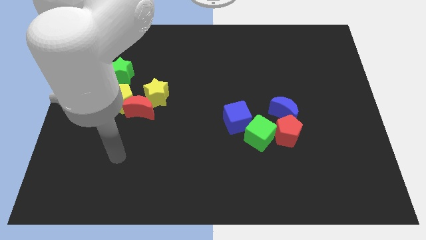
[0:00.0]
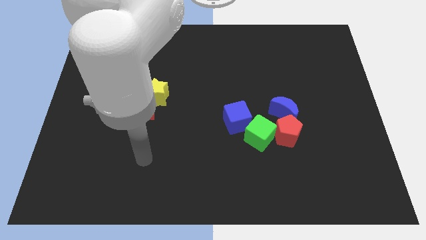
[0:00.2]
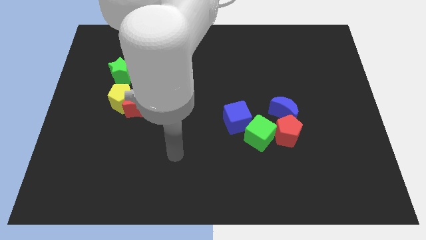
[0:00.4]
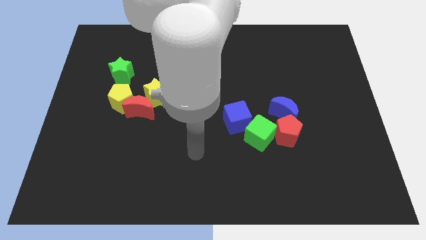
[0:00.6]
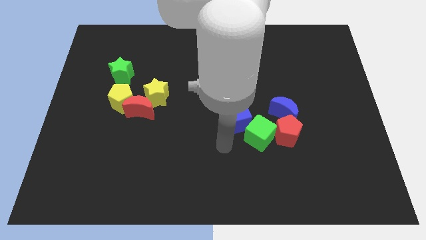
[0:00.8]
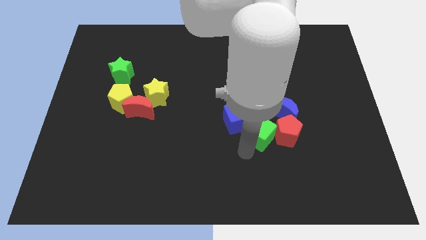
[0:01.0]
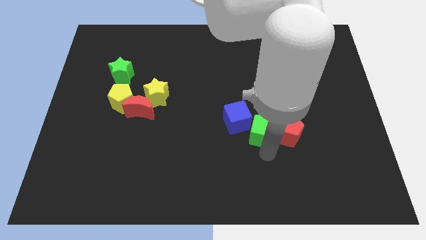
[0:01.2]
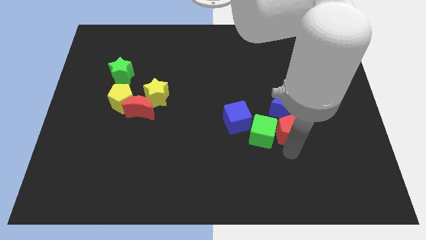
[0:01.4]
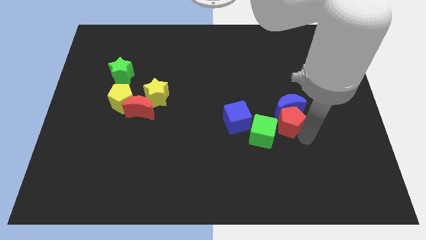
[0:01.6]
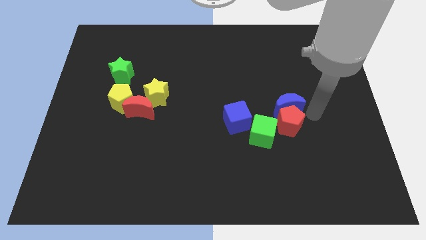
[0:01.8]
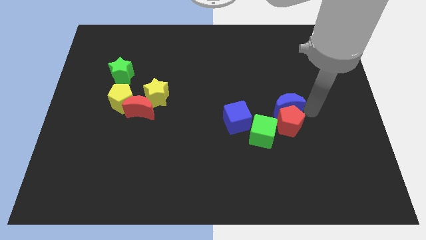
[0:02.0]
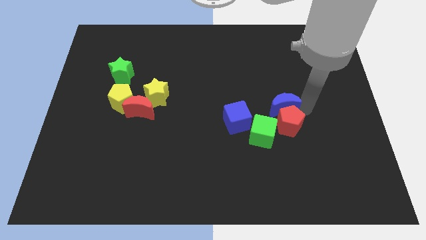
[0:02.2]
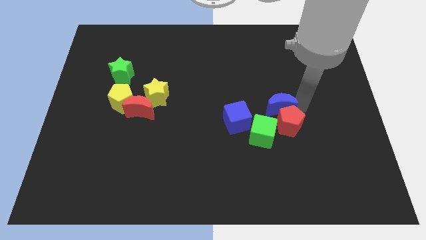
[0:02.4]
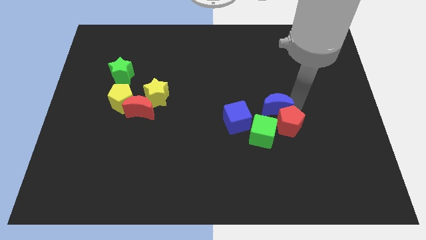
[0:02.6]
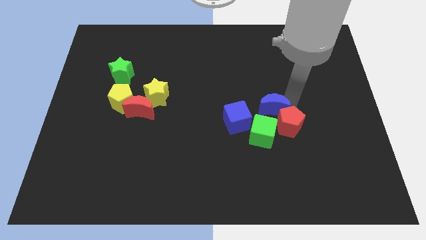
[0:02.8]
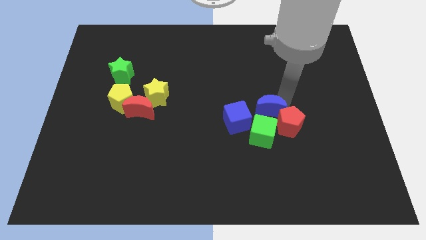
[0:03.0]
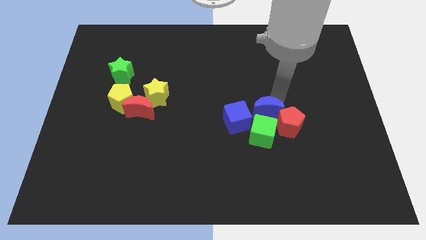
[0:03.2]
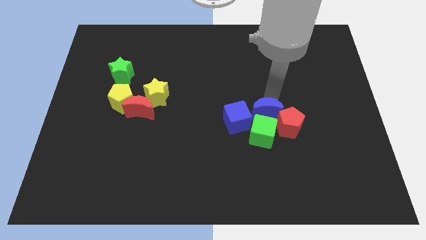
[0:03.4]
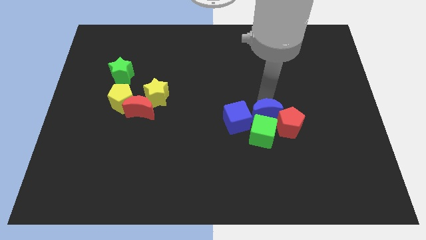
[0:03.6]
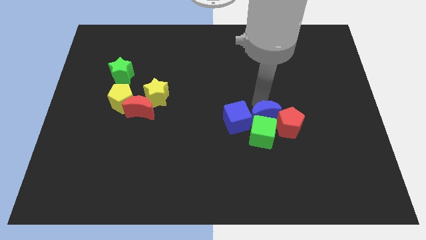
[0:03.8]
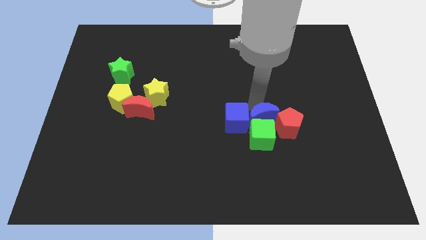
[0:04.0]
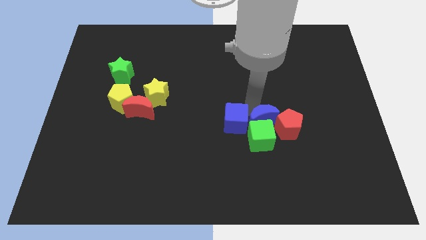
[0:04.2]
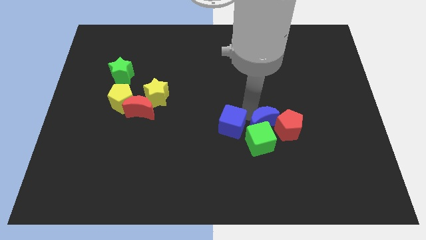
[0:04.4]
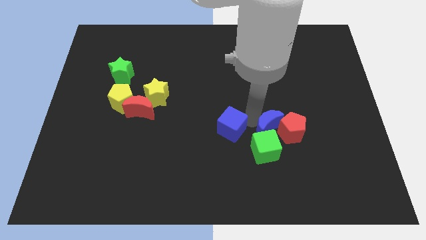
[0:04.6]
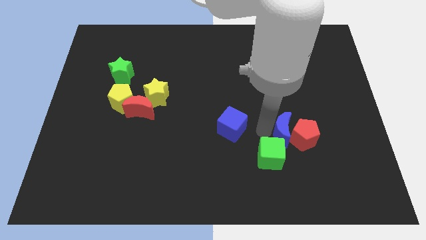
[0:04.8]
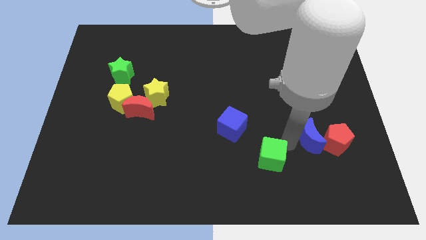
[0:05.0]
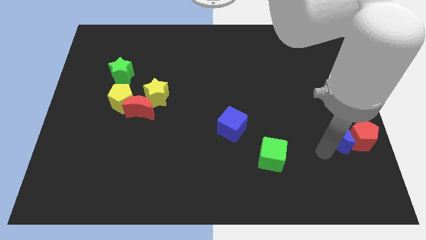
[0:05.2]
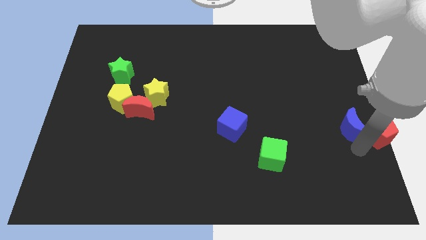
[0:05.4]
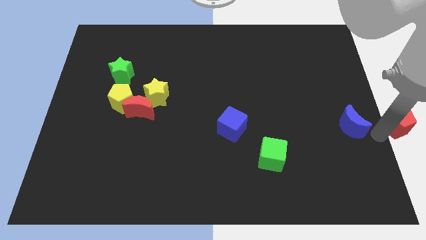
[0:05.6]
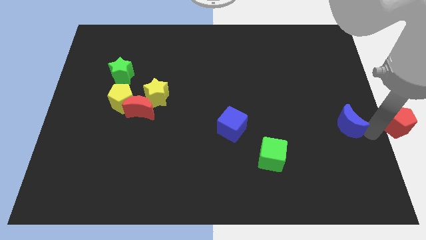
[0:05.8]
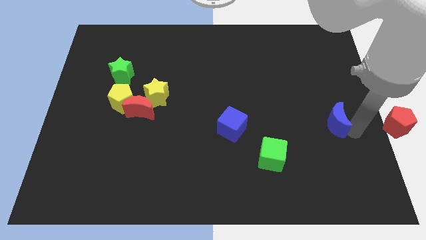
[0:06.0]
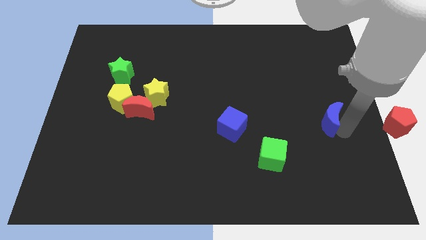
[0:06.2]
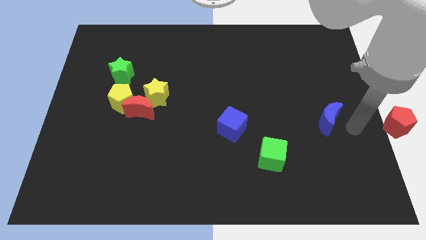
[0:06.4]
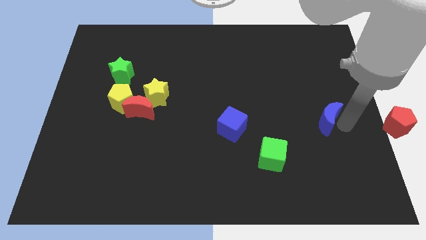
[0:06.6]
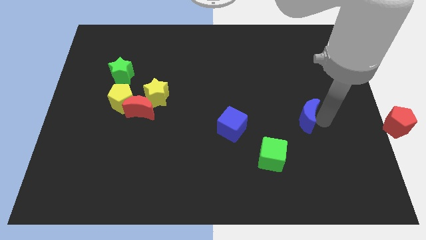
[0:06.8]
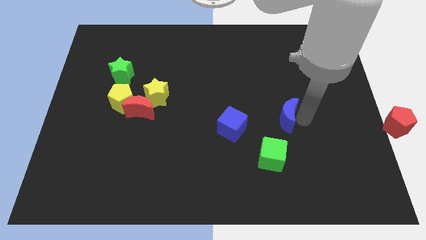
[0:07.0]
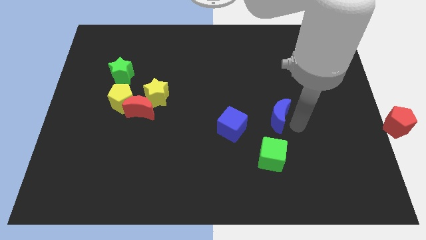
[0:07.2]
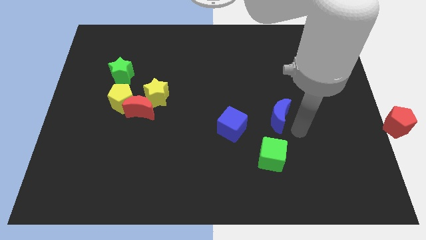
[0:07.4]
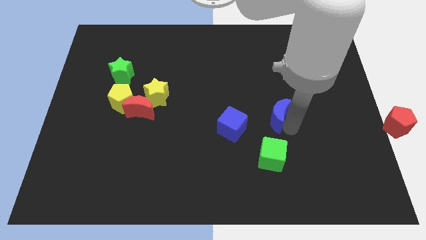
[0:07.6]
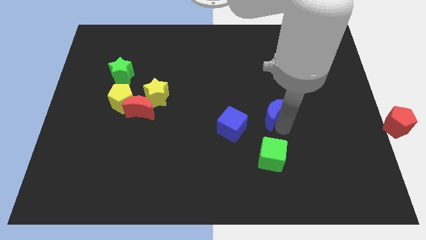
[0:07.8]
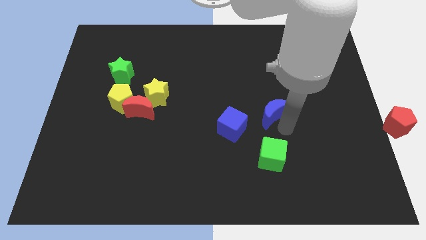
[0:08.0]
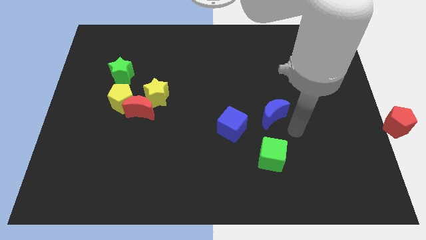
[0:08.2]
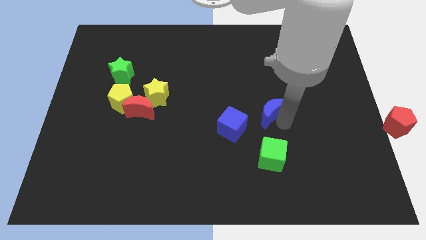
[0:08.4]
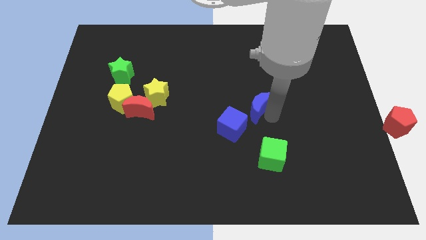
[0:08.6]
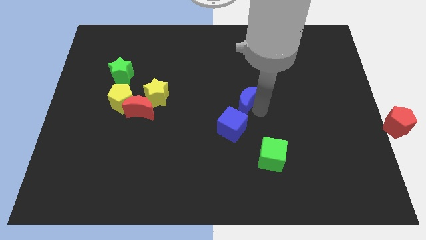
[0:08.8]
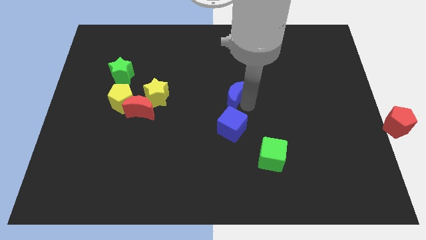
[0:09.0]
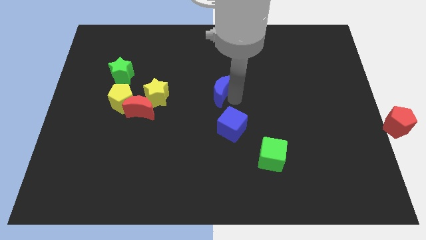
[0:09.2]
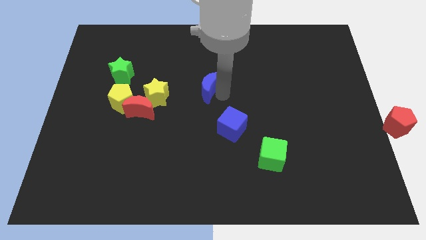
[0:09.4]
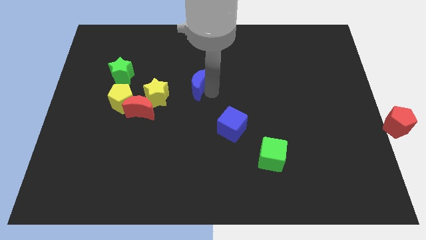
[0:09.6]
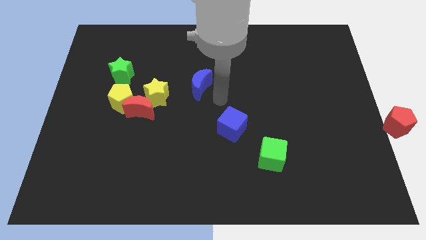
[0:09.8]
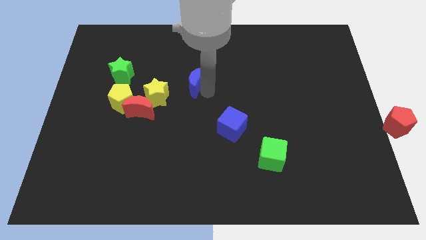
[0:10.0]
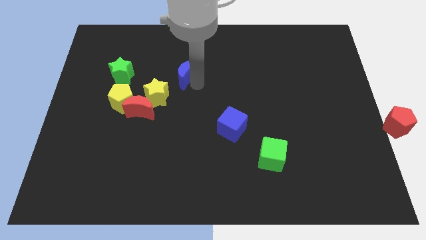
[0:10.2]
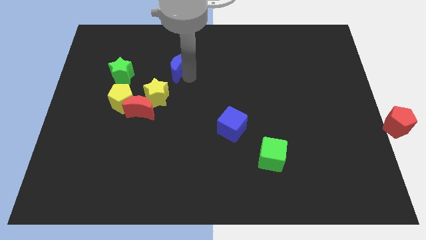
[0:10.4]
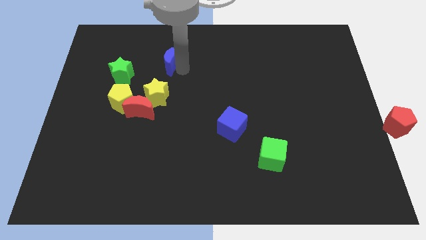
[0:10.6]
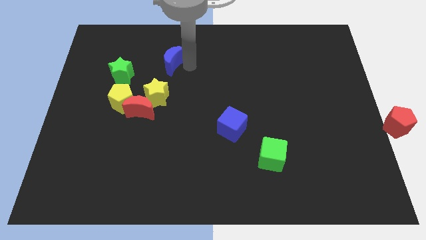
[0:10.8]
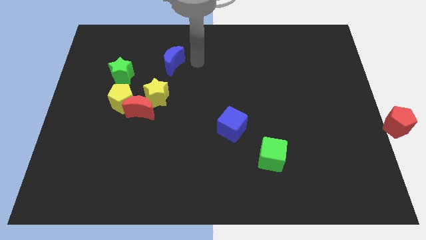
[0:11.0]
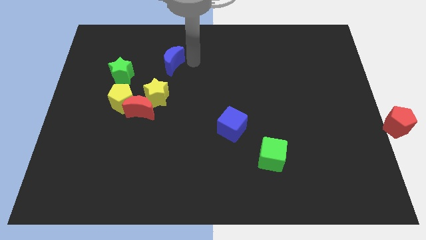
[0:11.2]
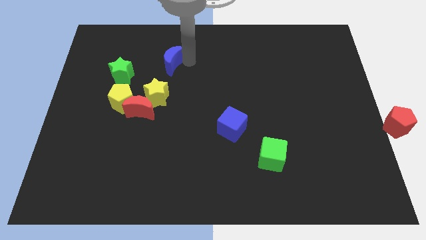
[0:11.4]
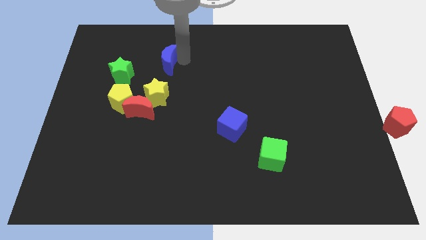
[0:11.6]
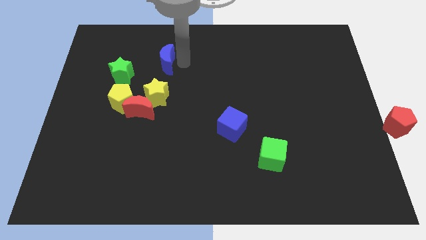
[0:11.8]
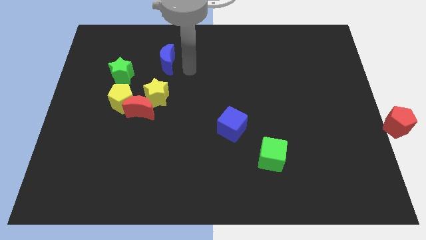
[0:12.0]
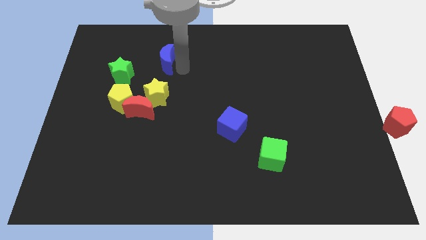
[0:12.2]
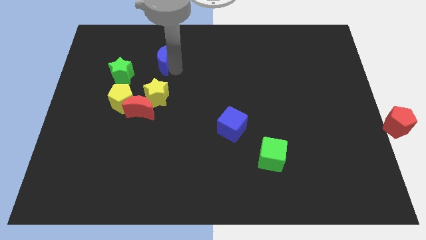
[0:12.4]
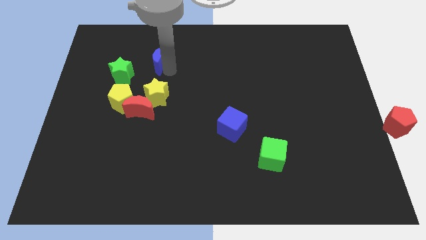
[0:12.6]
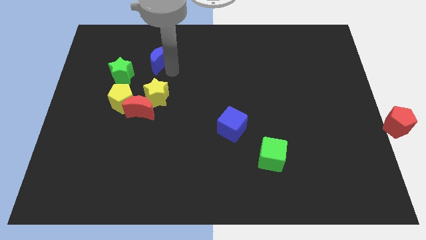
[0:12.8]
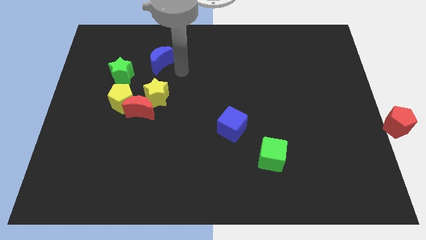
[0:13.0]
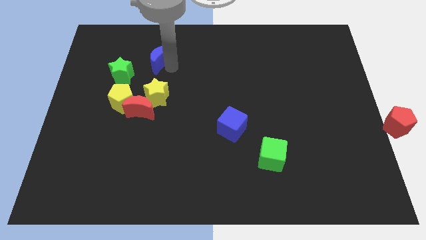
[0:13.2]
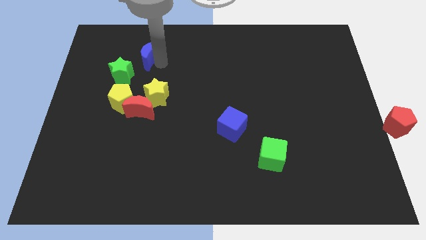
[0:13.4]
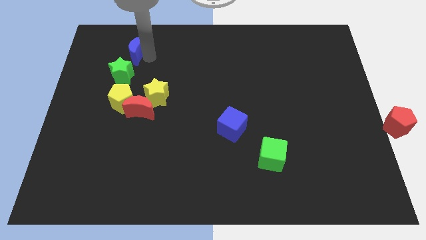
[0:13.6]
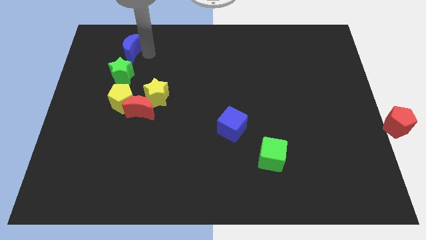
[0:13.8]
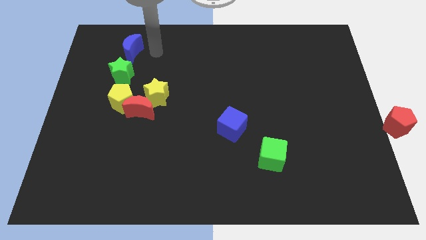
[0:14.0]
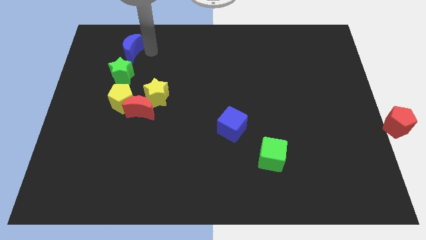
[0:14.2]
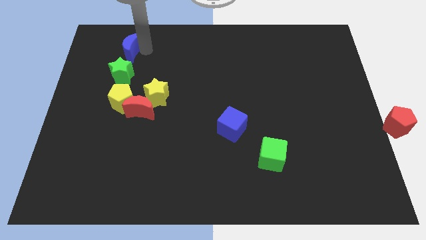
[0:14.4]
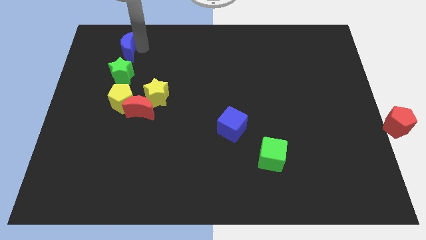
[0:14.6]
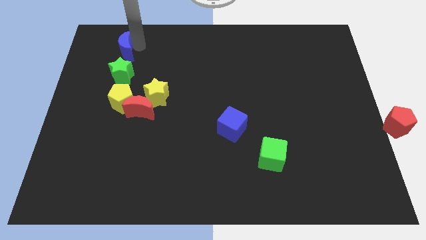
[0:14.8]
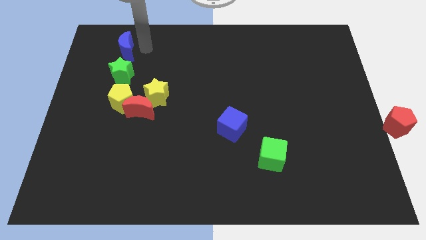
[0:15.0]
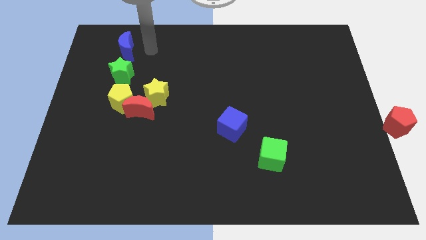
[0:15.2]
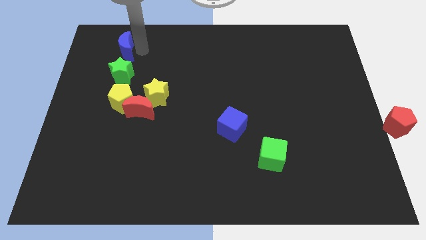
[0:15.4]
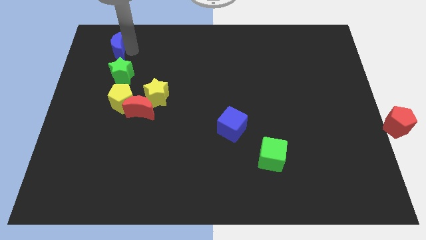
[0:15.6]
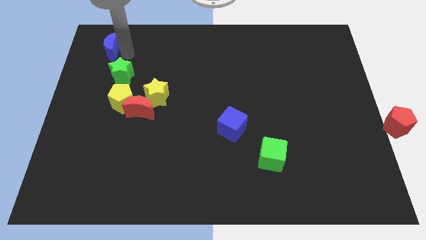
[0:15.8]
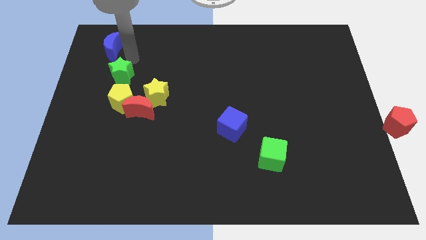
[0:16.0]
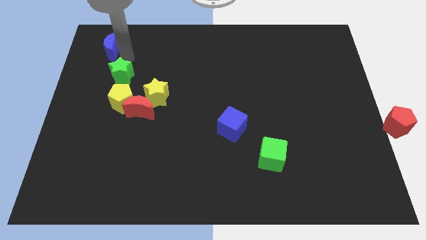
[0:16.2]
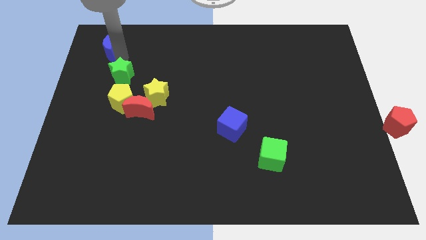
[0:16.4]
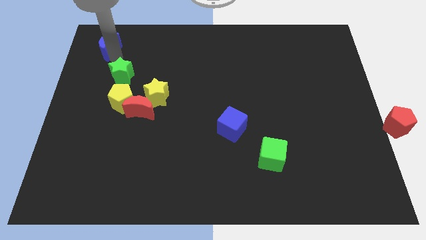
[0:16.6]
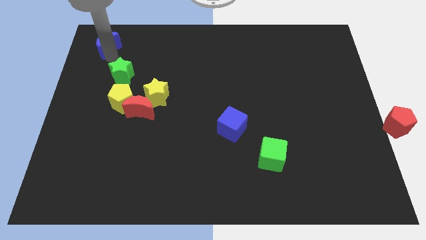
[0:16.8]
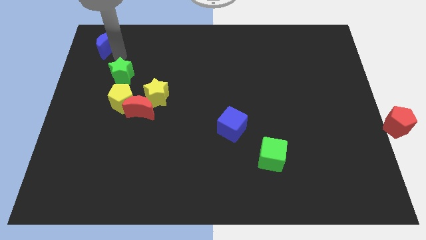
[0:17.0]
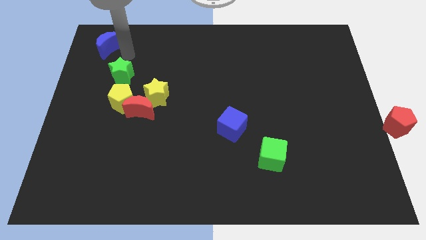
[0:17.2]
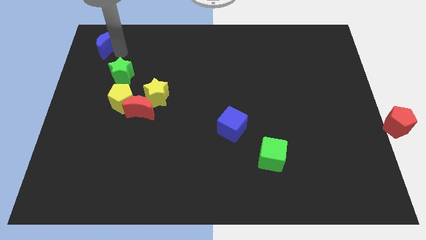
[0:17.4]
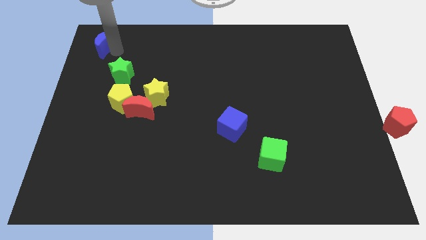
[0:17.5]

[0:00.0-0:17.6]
move the blue moon to the upper left corner
